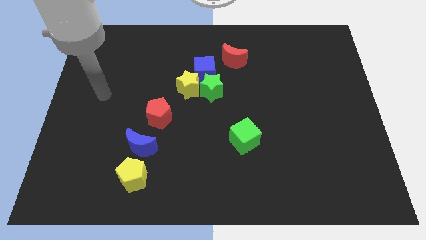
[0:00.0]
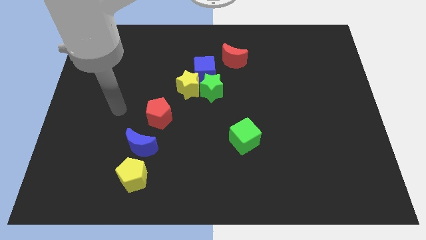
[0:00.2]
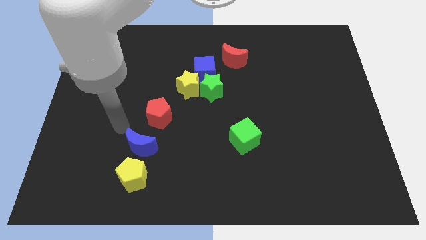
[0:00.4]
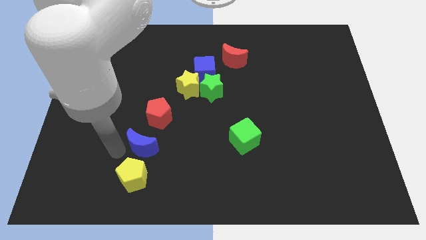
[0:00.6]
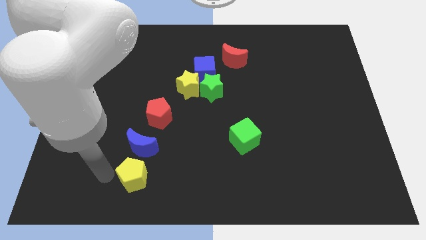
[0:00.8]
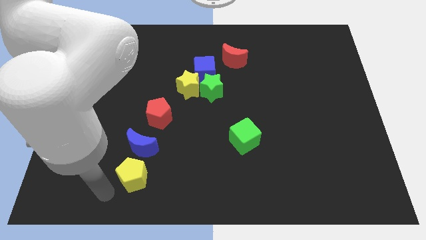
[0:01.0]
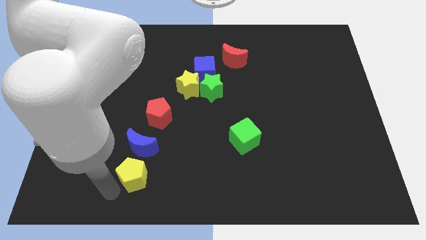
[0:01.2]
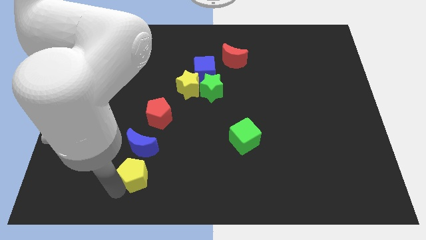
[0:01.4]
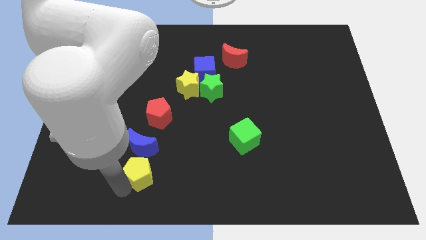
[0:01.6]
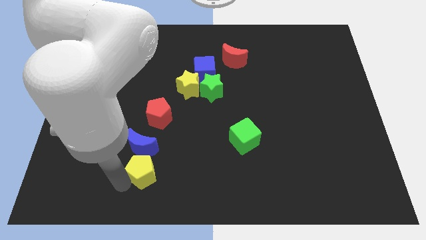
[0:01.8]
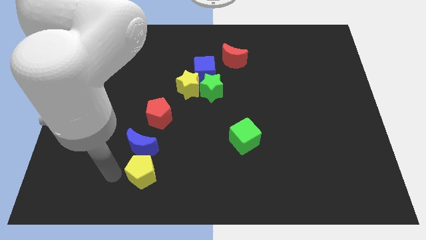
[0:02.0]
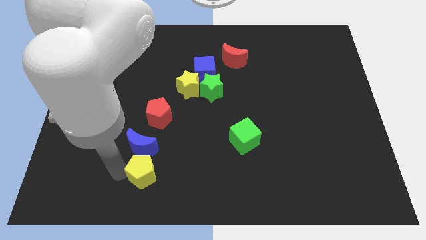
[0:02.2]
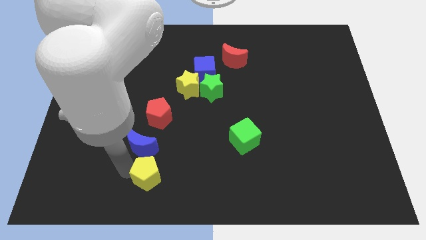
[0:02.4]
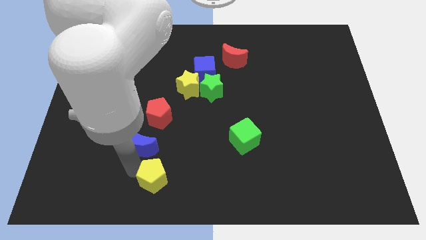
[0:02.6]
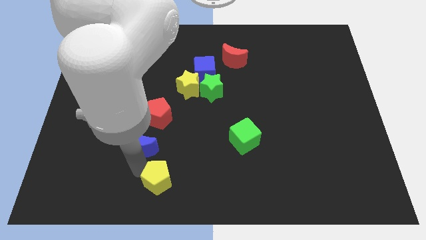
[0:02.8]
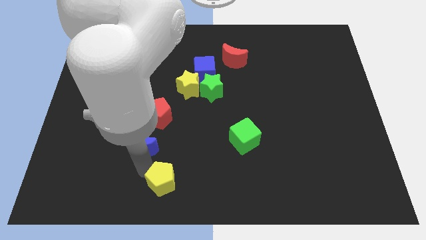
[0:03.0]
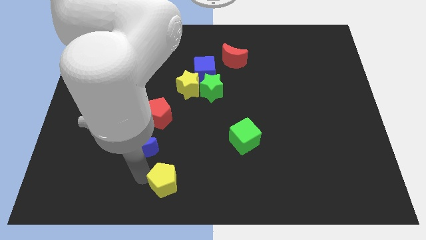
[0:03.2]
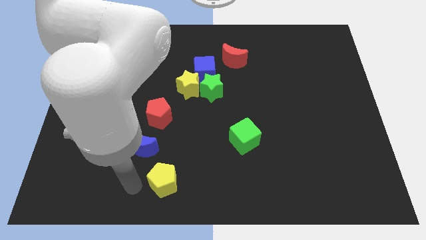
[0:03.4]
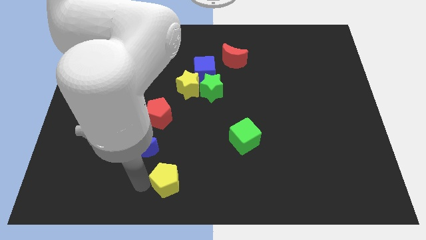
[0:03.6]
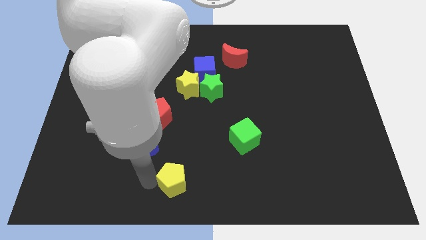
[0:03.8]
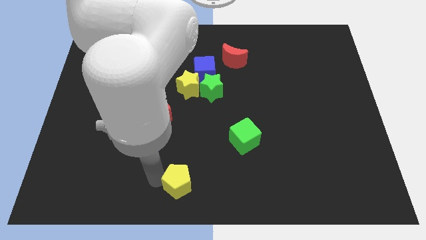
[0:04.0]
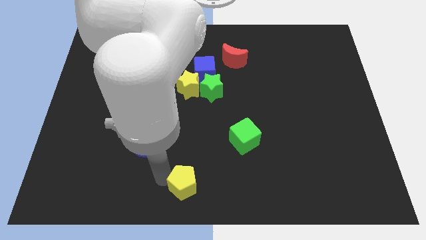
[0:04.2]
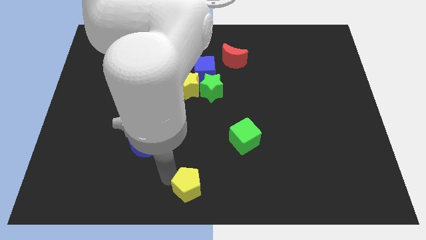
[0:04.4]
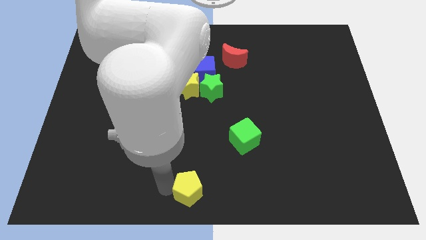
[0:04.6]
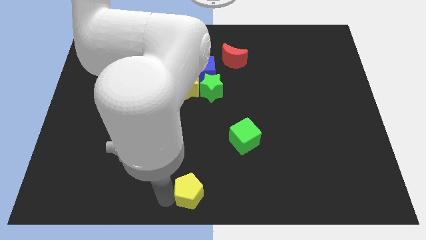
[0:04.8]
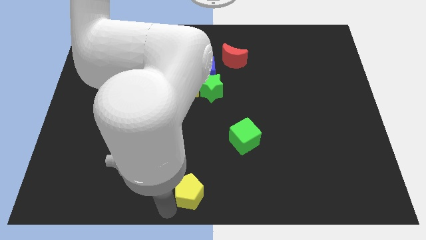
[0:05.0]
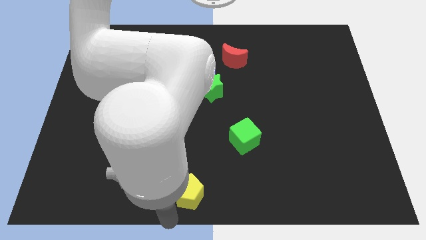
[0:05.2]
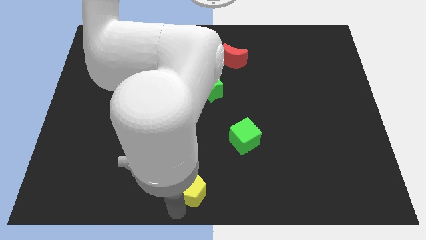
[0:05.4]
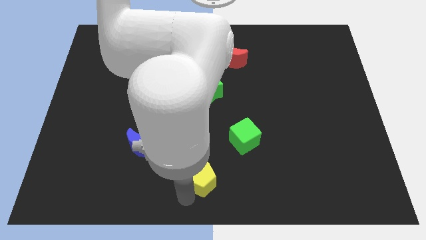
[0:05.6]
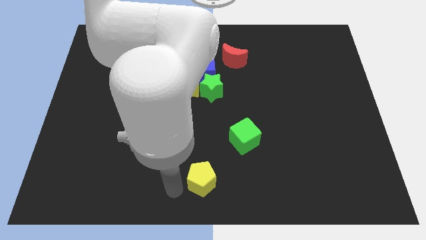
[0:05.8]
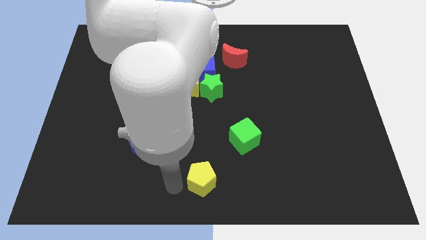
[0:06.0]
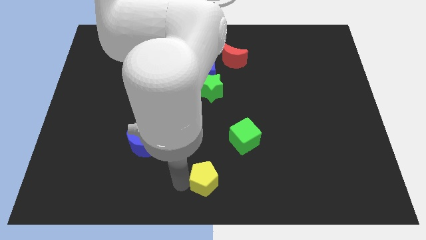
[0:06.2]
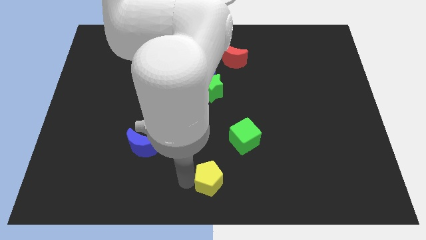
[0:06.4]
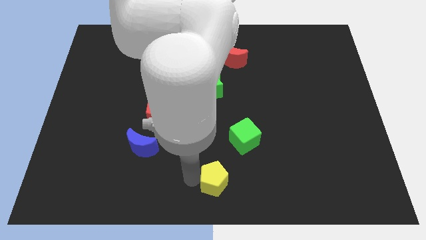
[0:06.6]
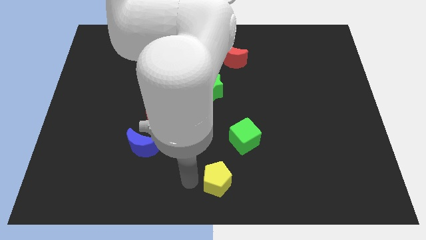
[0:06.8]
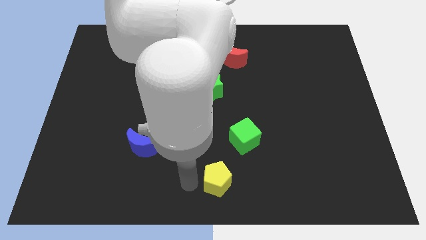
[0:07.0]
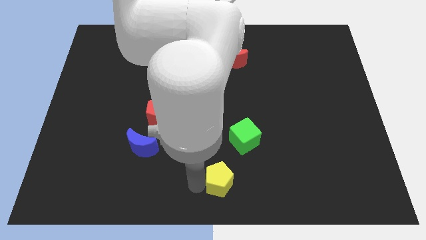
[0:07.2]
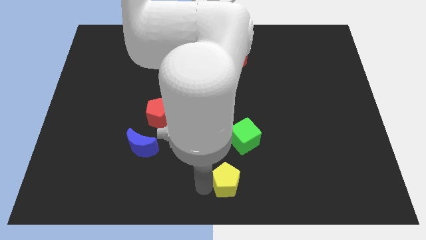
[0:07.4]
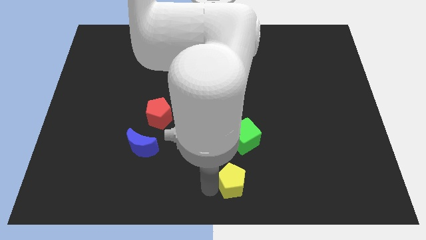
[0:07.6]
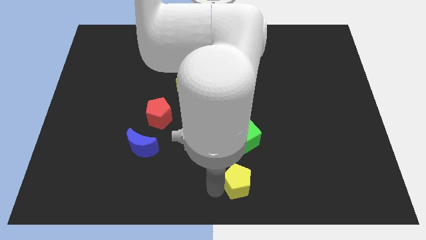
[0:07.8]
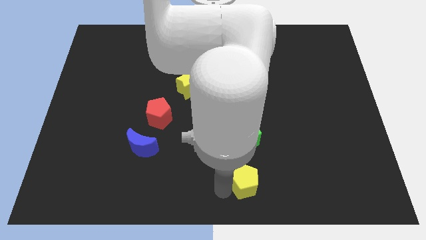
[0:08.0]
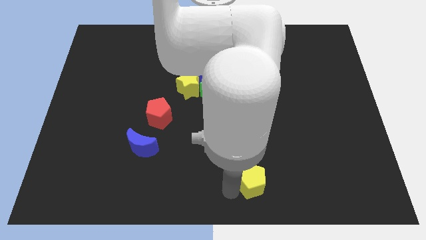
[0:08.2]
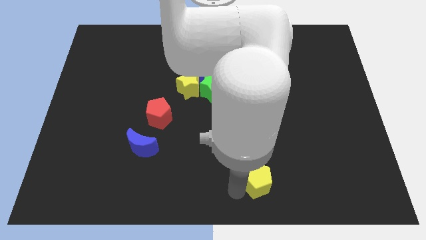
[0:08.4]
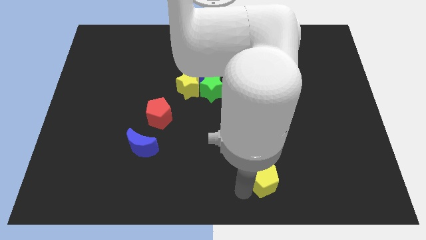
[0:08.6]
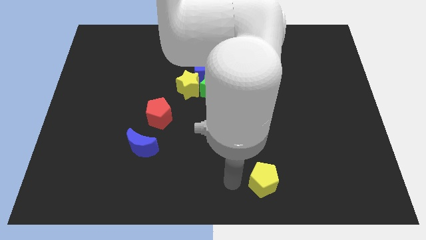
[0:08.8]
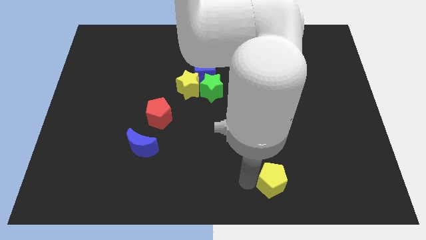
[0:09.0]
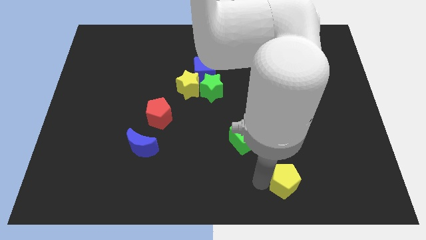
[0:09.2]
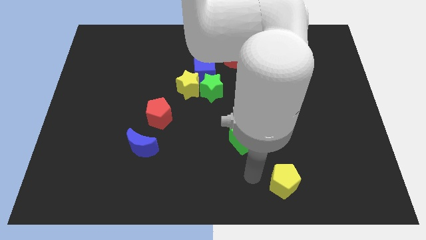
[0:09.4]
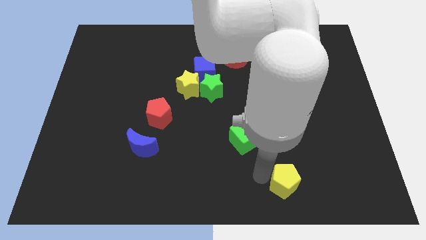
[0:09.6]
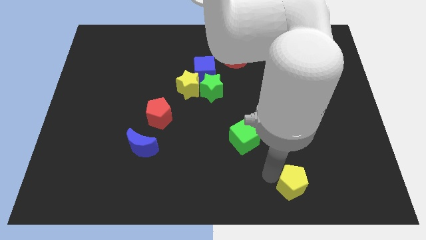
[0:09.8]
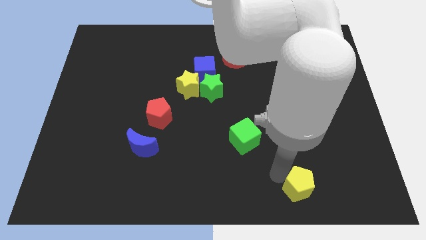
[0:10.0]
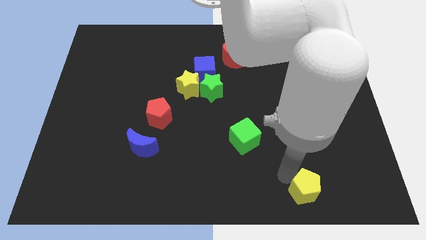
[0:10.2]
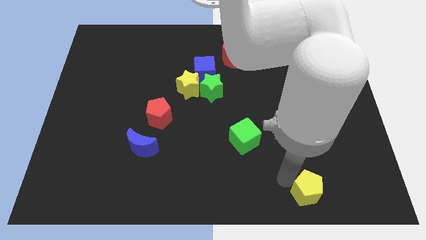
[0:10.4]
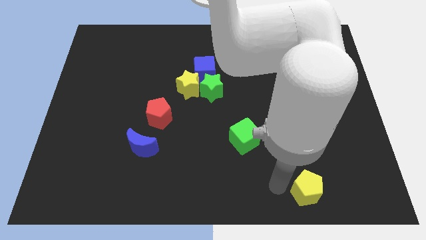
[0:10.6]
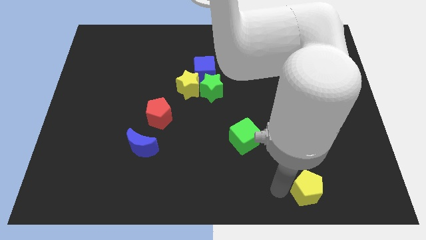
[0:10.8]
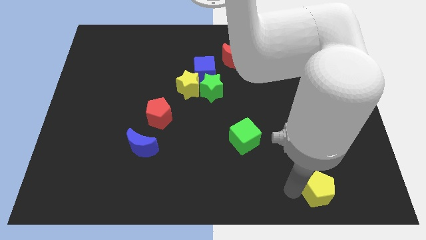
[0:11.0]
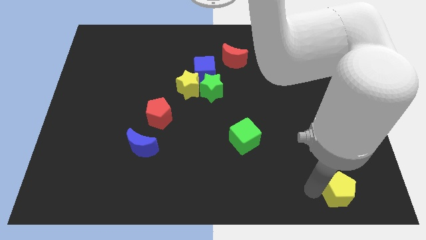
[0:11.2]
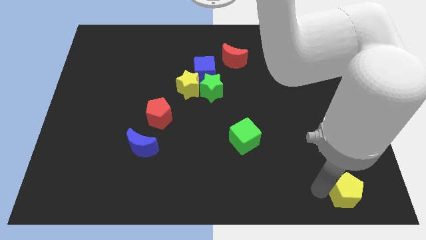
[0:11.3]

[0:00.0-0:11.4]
slide the yellow pentagon to the bottom right corner

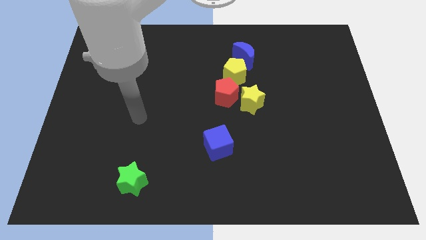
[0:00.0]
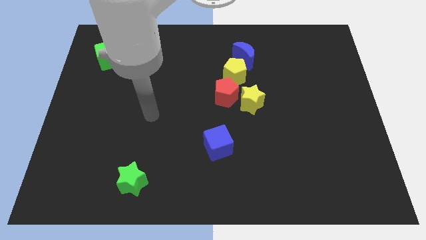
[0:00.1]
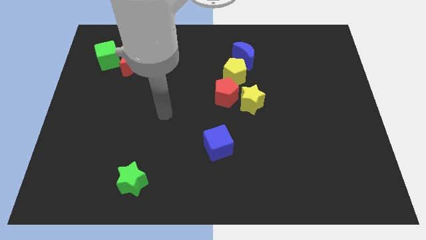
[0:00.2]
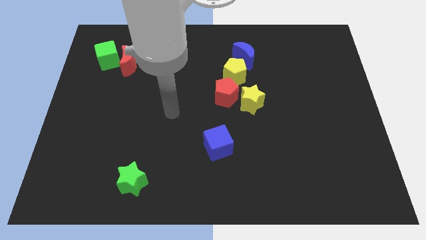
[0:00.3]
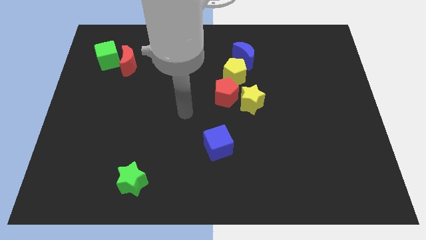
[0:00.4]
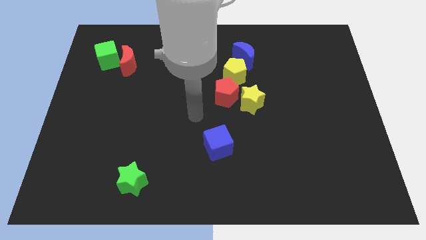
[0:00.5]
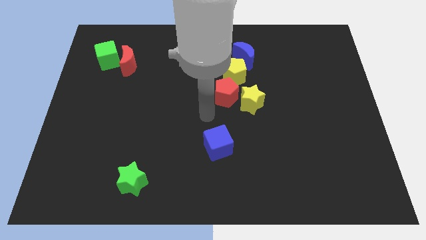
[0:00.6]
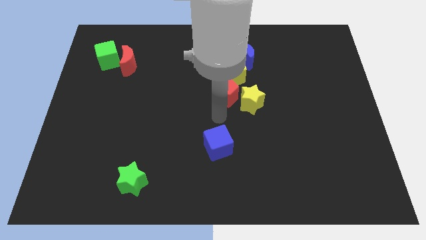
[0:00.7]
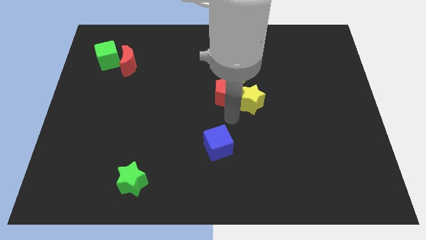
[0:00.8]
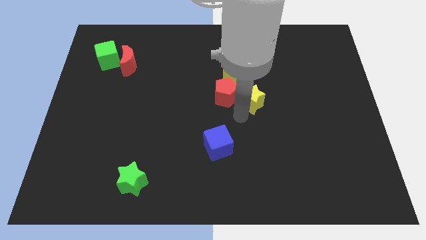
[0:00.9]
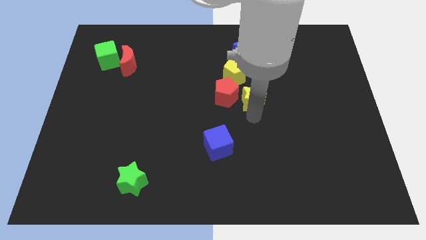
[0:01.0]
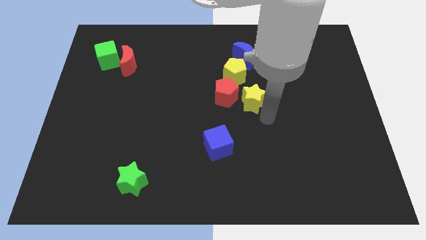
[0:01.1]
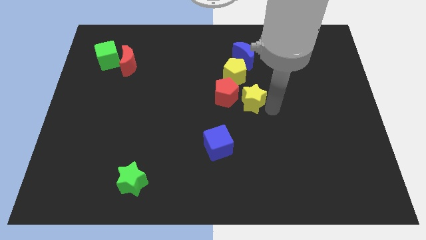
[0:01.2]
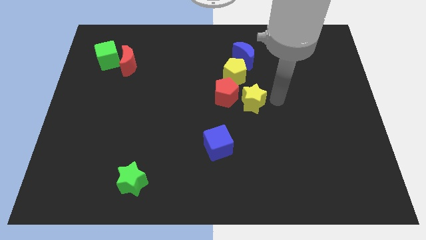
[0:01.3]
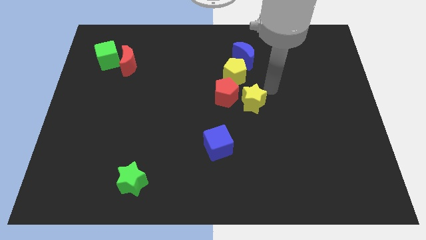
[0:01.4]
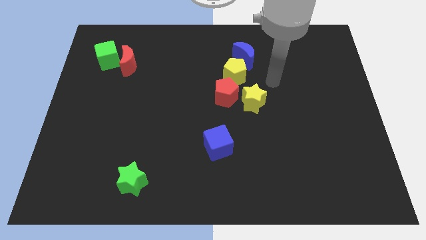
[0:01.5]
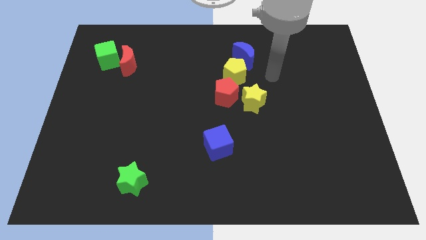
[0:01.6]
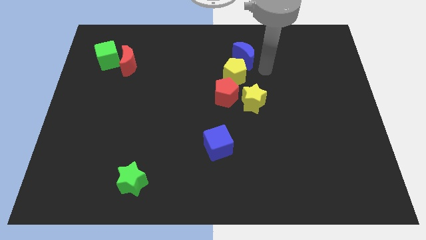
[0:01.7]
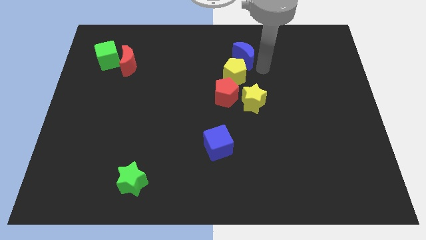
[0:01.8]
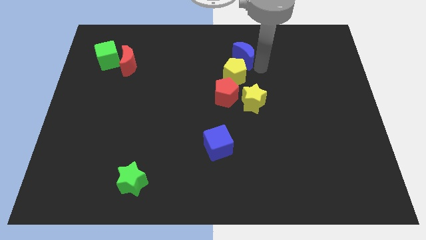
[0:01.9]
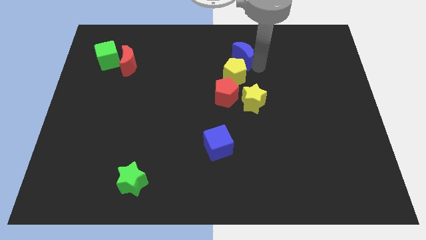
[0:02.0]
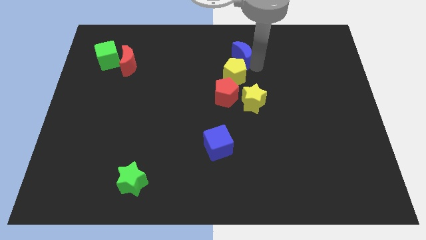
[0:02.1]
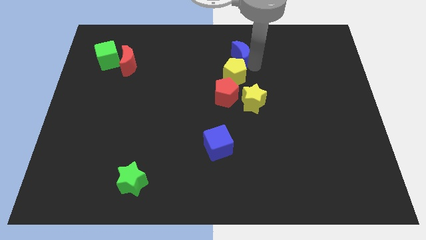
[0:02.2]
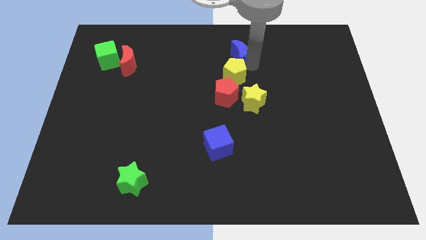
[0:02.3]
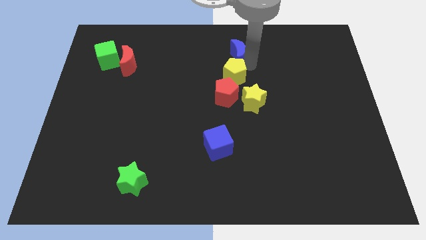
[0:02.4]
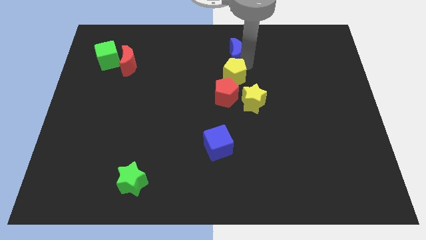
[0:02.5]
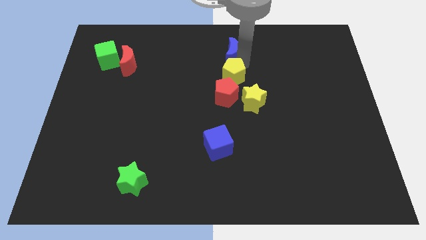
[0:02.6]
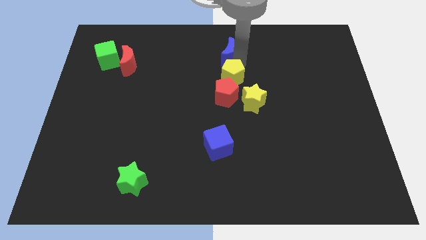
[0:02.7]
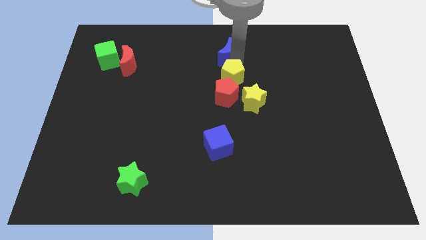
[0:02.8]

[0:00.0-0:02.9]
move the blue moon to the towards your base
